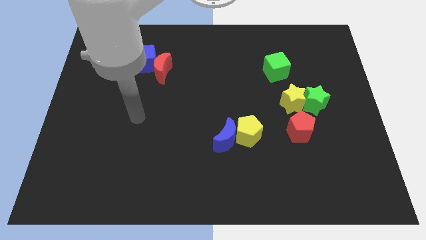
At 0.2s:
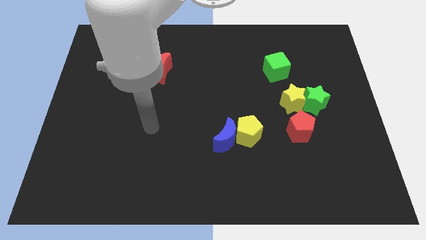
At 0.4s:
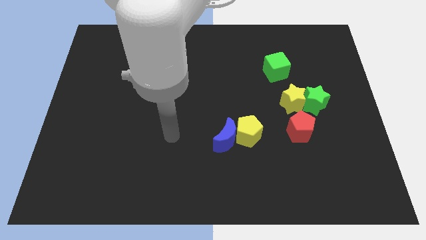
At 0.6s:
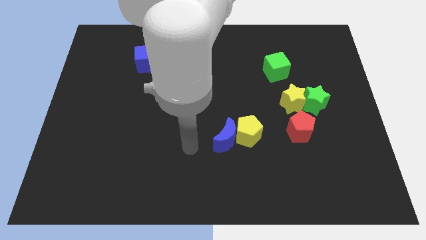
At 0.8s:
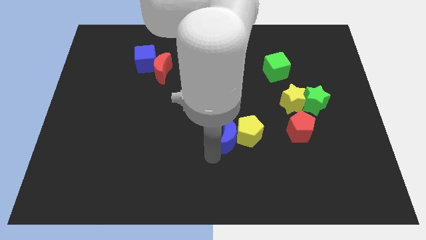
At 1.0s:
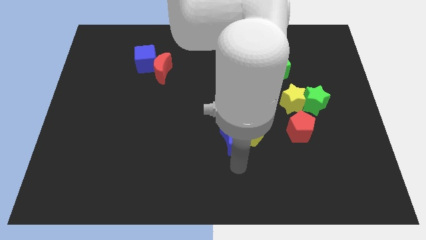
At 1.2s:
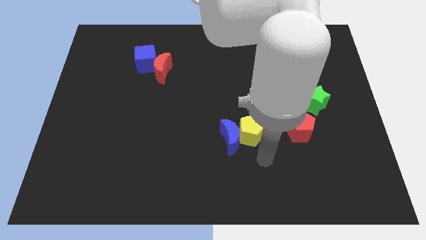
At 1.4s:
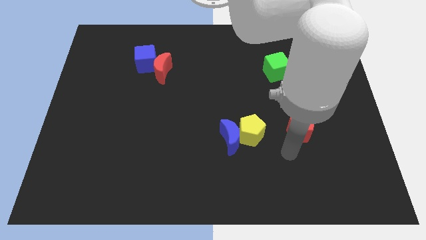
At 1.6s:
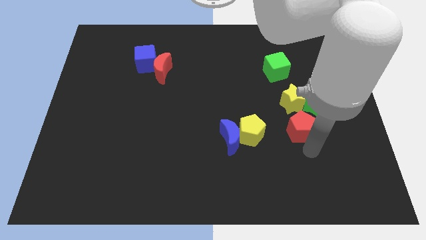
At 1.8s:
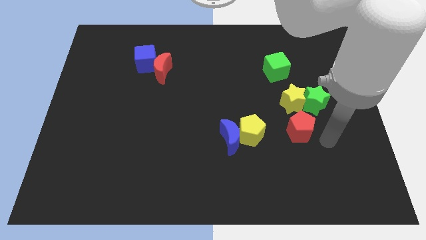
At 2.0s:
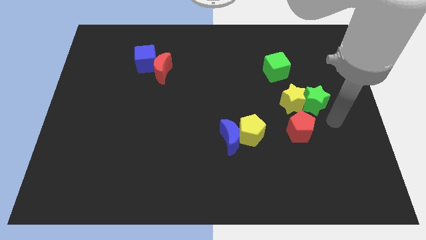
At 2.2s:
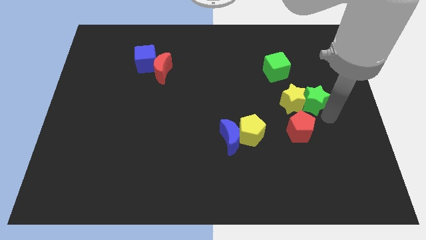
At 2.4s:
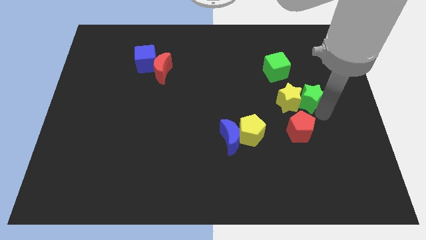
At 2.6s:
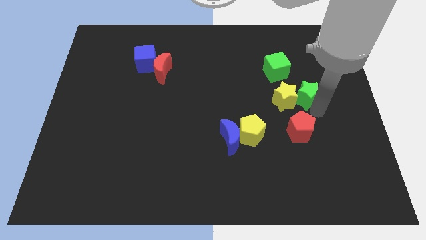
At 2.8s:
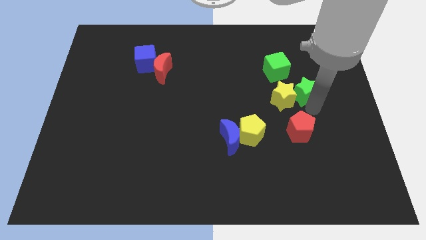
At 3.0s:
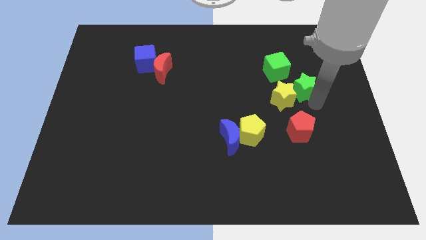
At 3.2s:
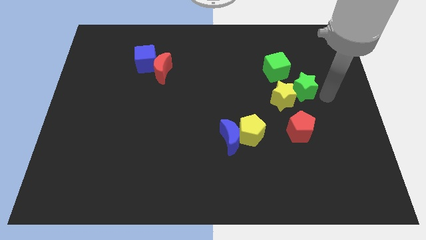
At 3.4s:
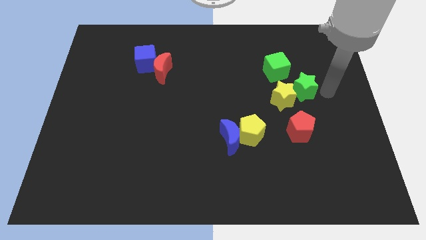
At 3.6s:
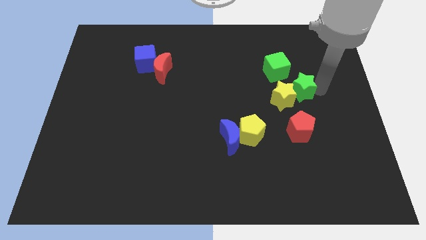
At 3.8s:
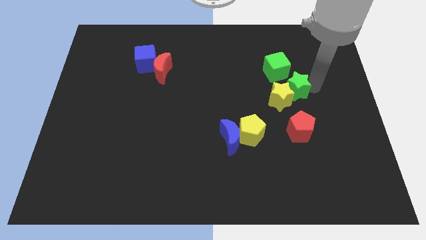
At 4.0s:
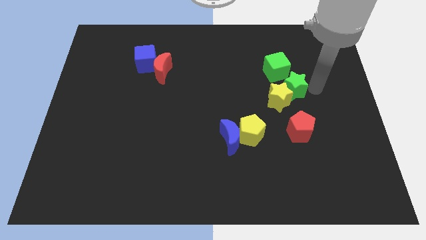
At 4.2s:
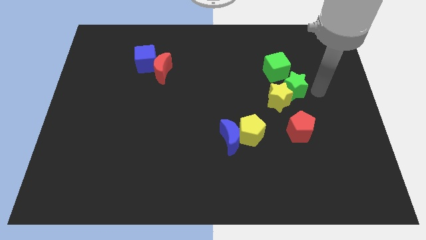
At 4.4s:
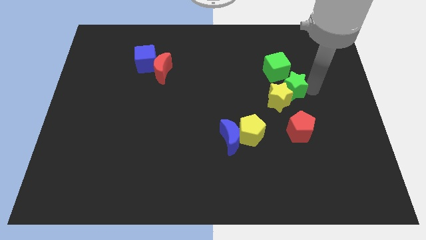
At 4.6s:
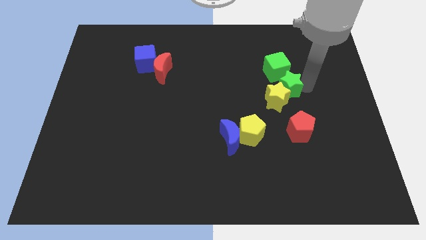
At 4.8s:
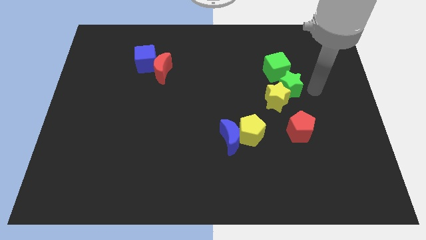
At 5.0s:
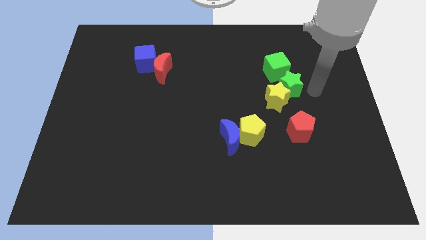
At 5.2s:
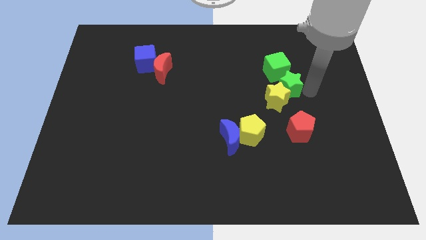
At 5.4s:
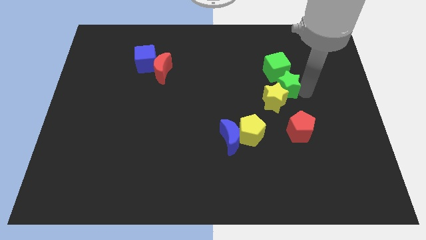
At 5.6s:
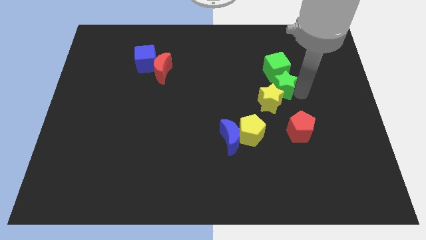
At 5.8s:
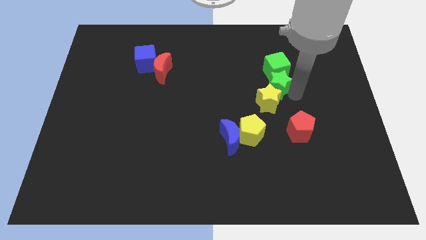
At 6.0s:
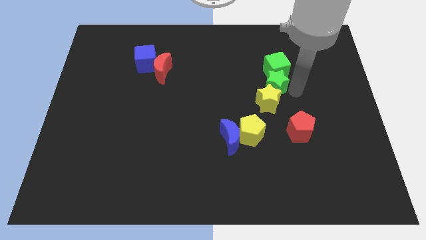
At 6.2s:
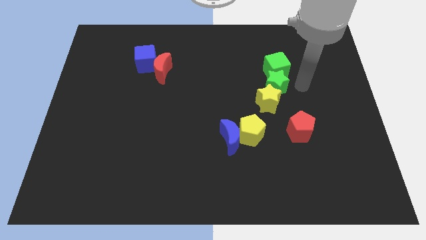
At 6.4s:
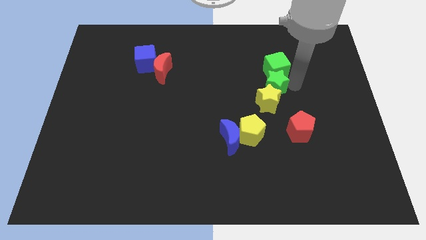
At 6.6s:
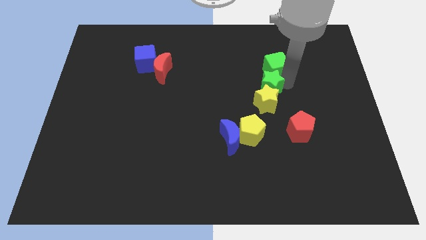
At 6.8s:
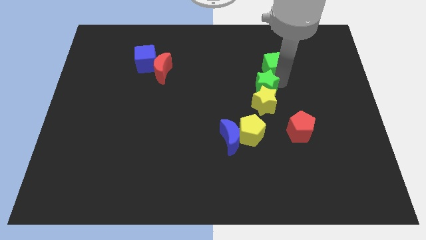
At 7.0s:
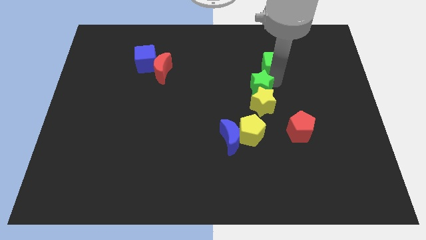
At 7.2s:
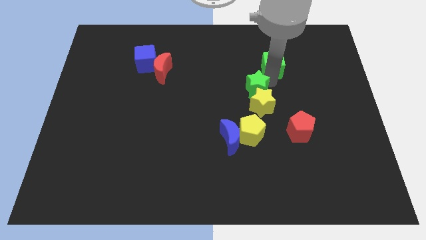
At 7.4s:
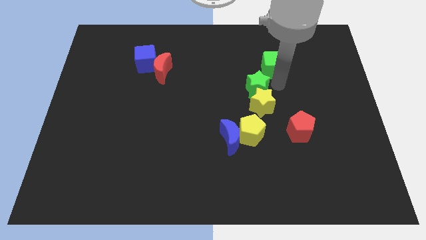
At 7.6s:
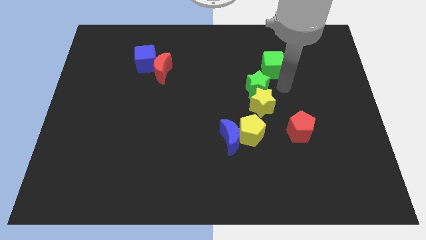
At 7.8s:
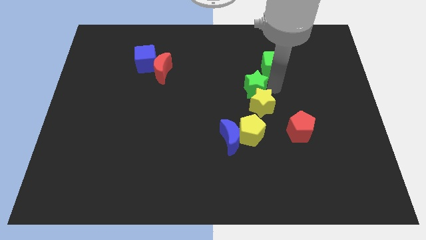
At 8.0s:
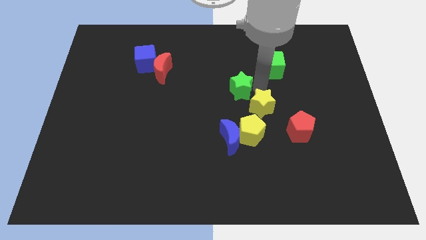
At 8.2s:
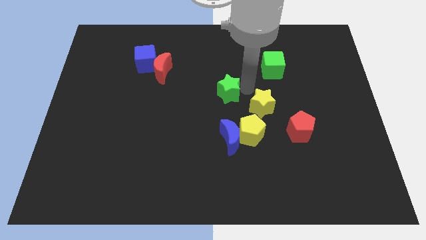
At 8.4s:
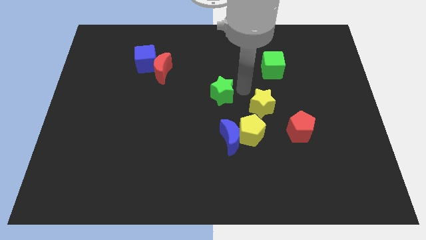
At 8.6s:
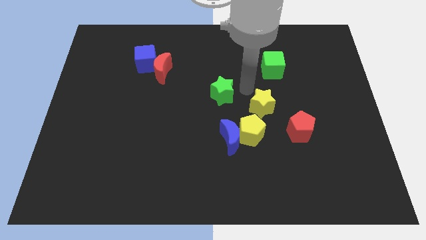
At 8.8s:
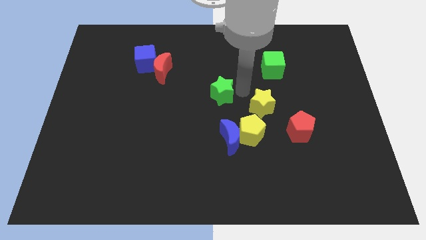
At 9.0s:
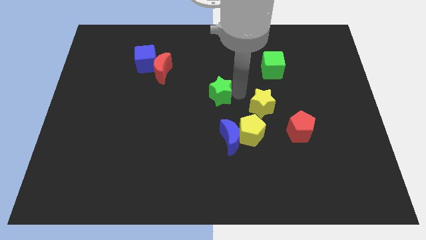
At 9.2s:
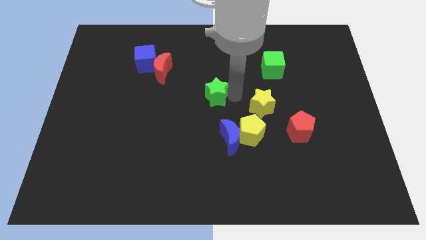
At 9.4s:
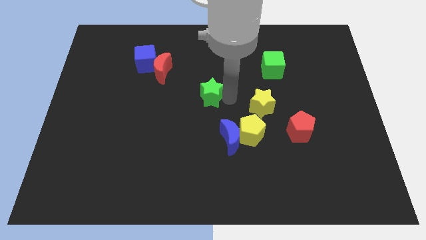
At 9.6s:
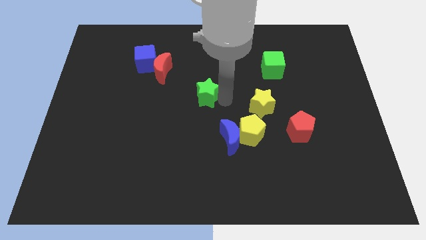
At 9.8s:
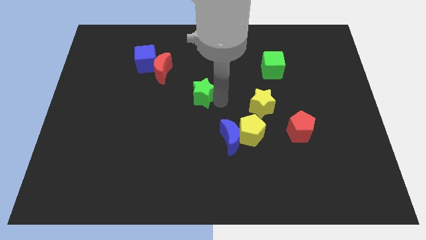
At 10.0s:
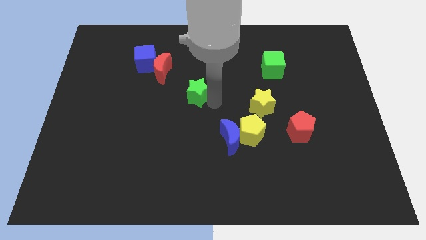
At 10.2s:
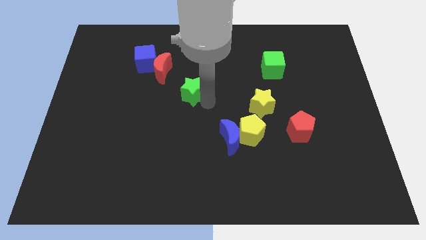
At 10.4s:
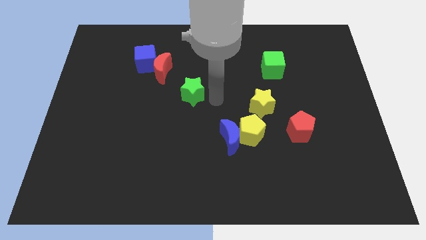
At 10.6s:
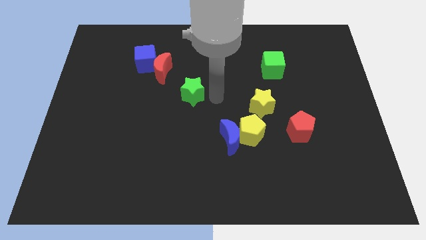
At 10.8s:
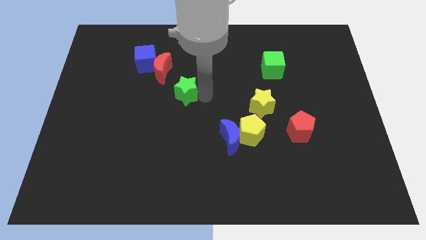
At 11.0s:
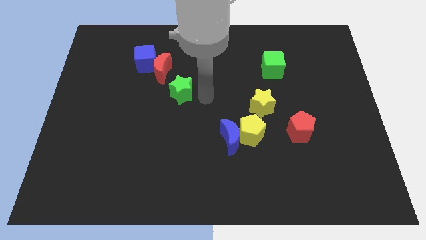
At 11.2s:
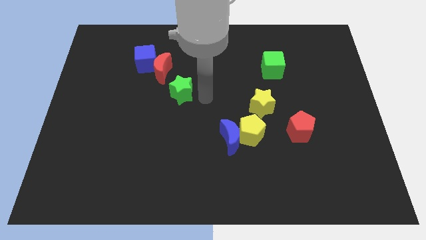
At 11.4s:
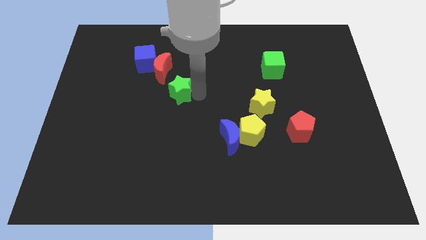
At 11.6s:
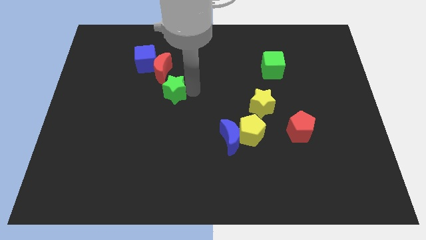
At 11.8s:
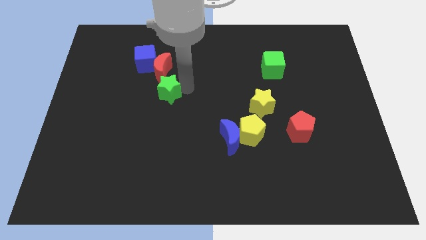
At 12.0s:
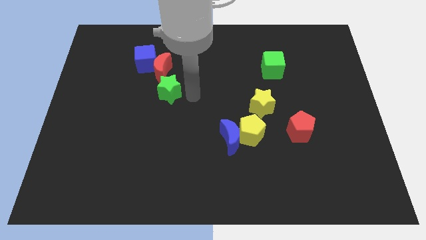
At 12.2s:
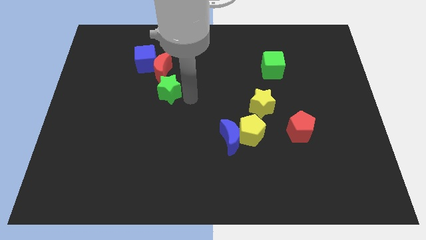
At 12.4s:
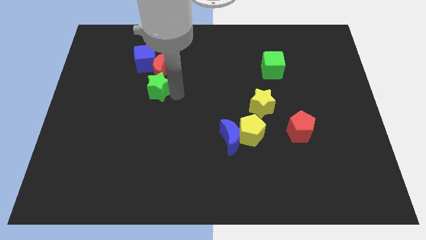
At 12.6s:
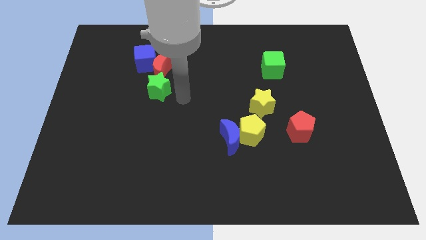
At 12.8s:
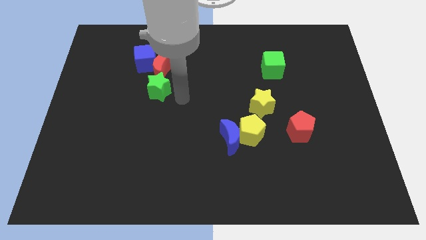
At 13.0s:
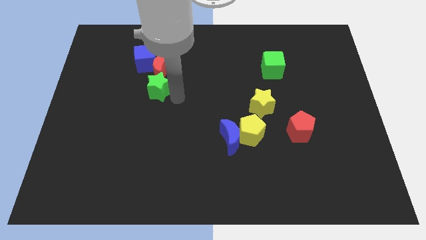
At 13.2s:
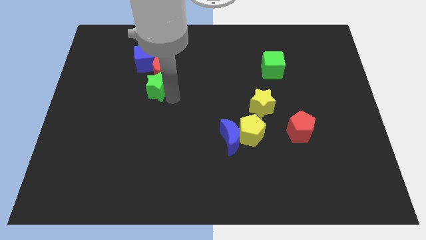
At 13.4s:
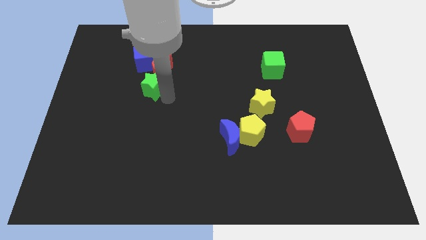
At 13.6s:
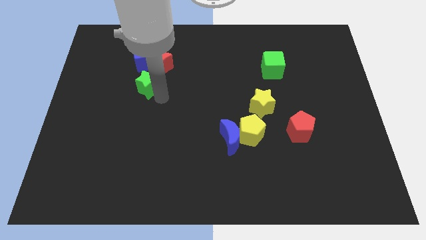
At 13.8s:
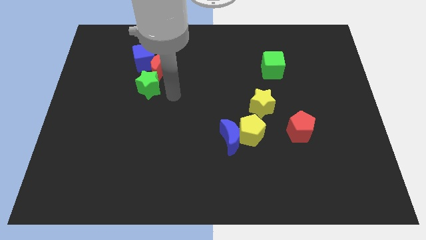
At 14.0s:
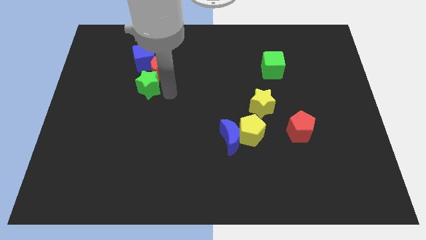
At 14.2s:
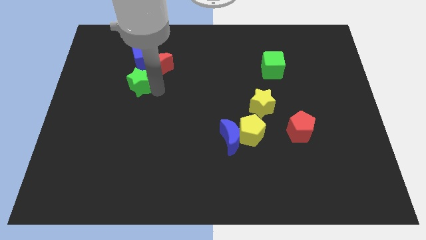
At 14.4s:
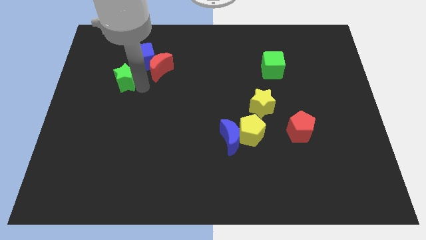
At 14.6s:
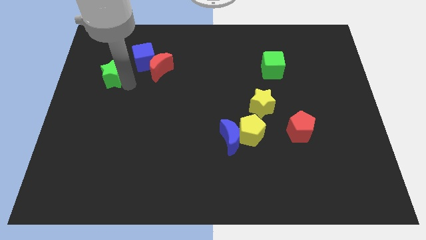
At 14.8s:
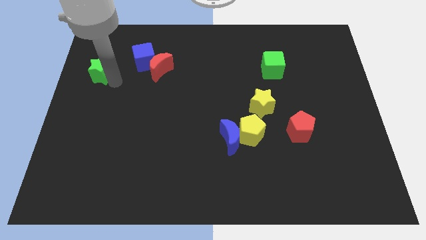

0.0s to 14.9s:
push the green star left of the blue cube
